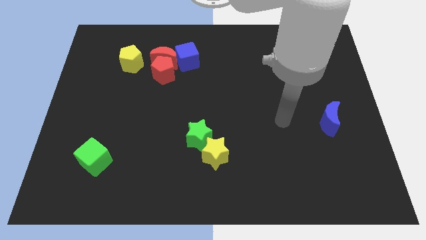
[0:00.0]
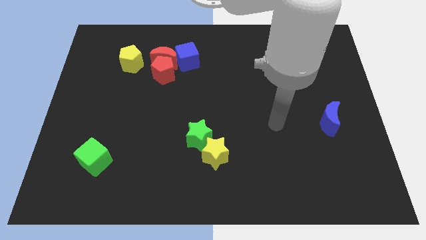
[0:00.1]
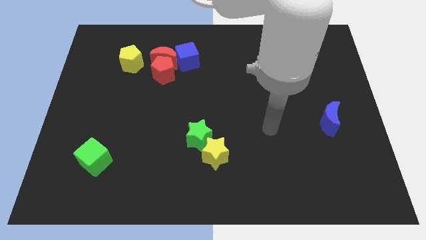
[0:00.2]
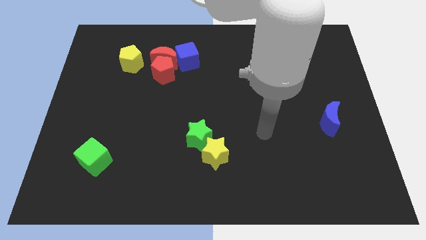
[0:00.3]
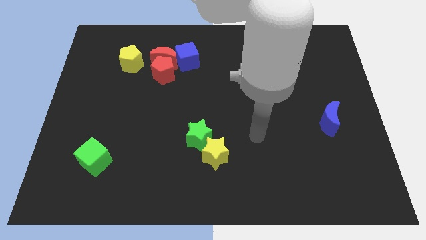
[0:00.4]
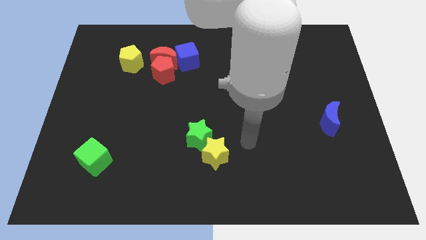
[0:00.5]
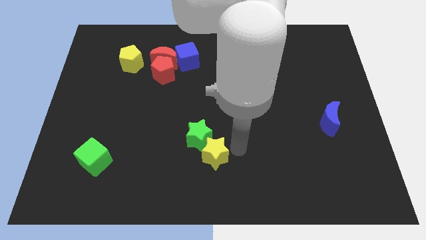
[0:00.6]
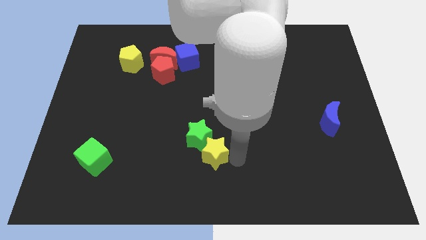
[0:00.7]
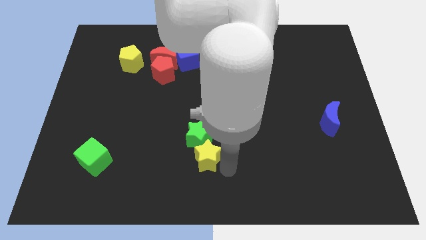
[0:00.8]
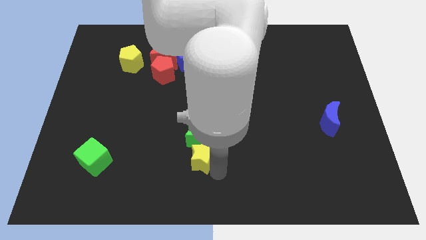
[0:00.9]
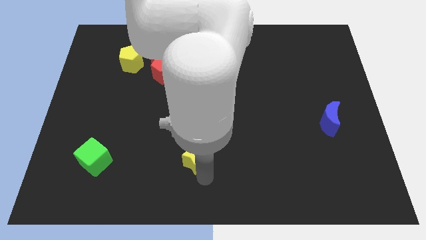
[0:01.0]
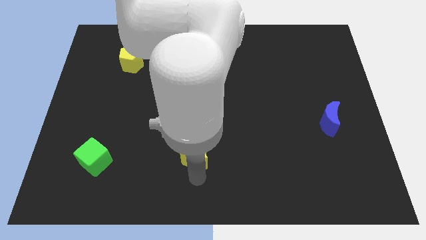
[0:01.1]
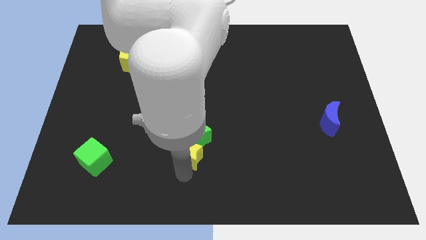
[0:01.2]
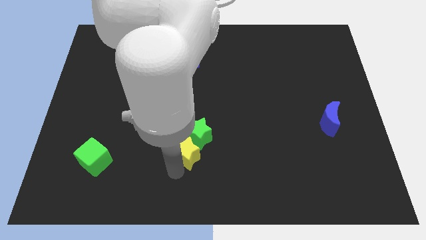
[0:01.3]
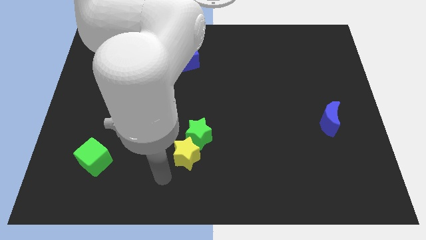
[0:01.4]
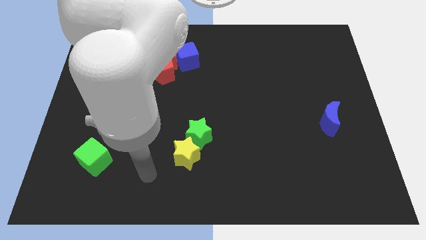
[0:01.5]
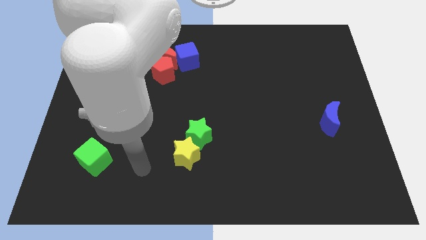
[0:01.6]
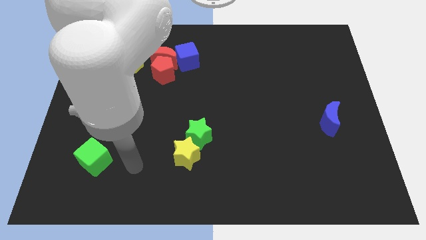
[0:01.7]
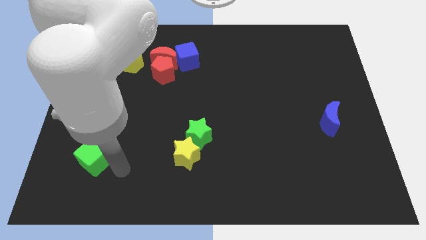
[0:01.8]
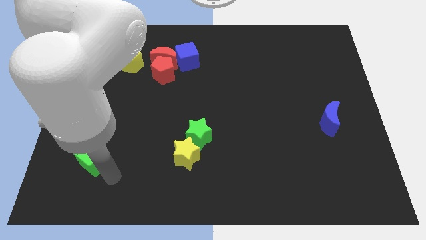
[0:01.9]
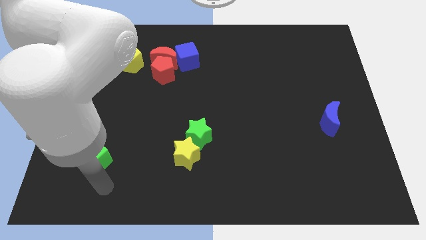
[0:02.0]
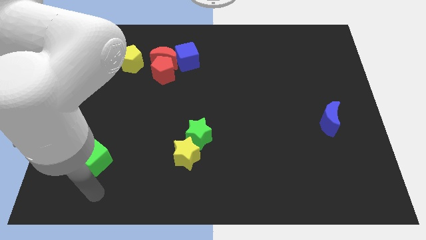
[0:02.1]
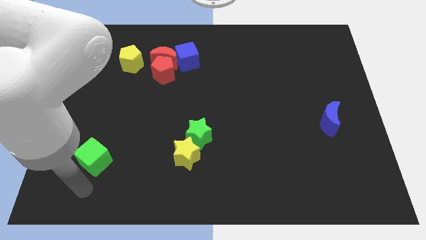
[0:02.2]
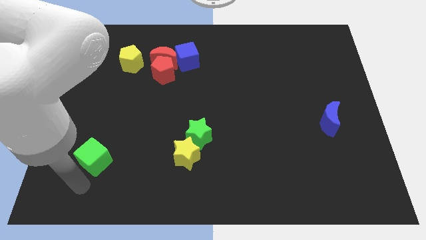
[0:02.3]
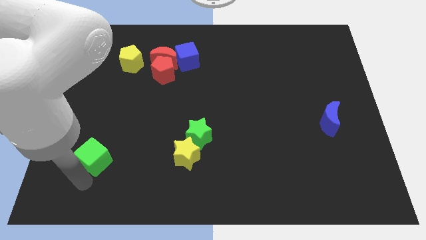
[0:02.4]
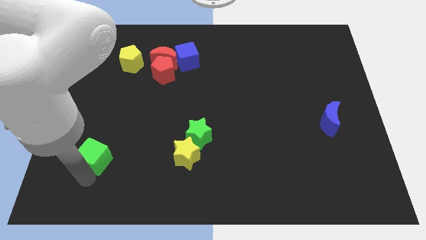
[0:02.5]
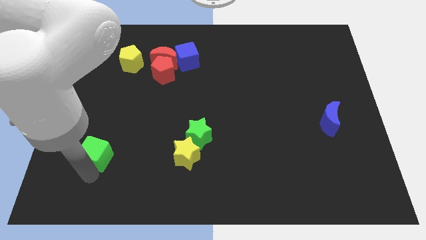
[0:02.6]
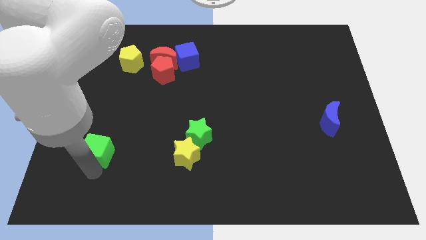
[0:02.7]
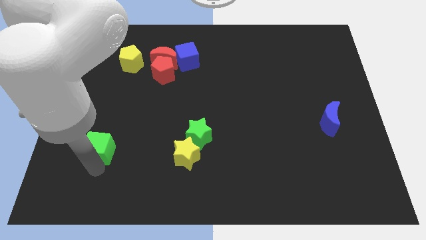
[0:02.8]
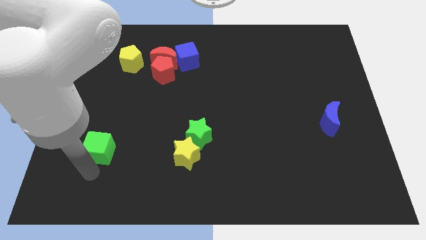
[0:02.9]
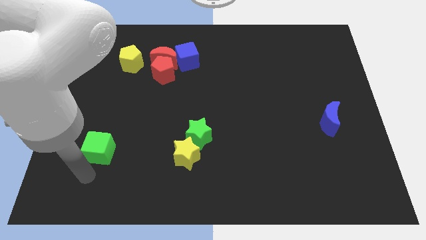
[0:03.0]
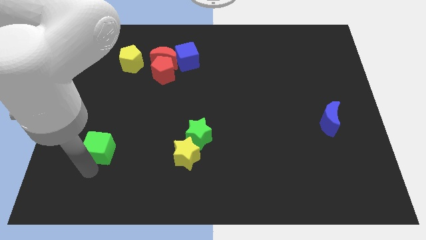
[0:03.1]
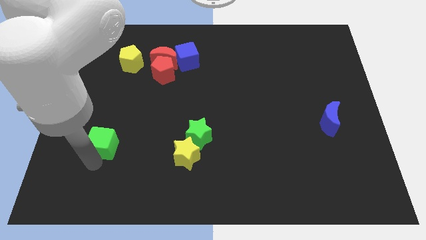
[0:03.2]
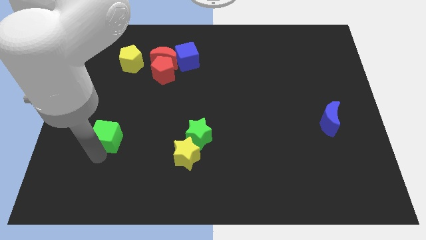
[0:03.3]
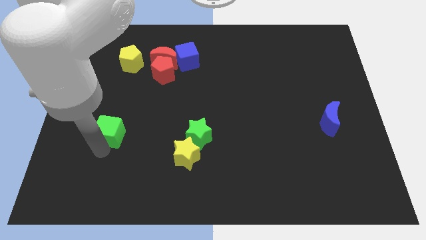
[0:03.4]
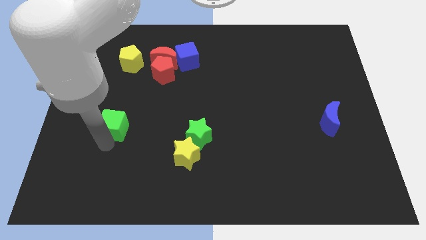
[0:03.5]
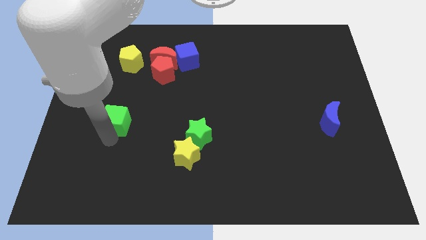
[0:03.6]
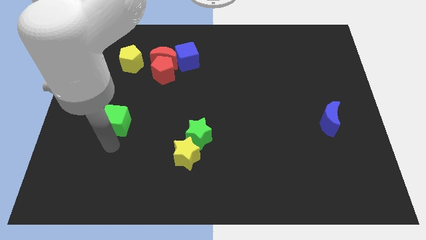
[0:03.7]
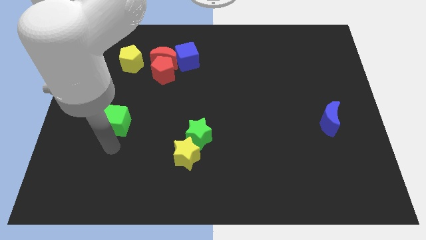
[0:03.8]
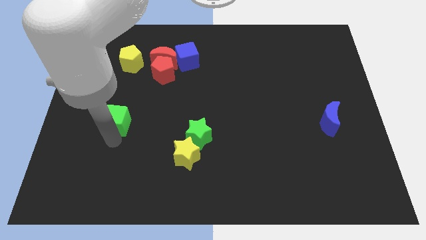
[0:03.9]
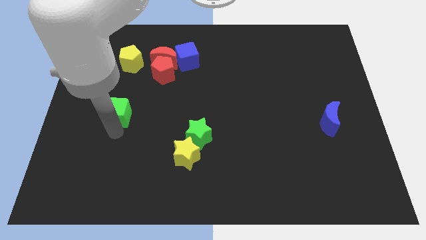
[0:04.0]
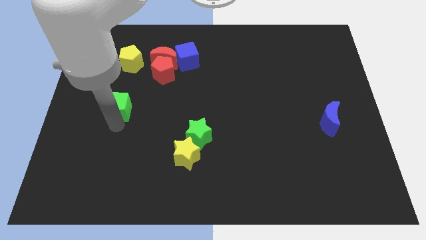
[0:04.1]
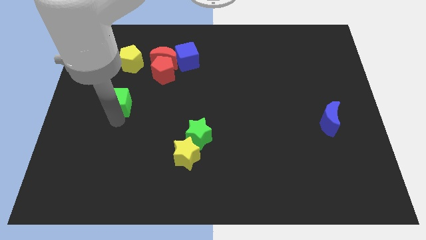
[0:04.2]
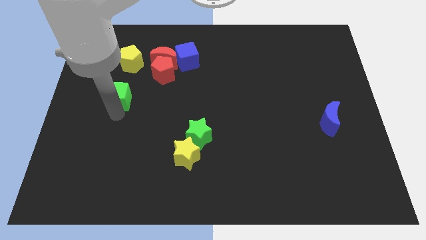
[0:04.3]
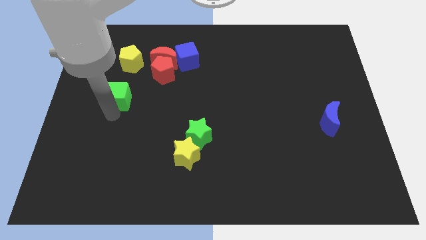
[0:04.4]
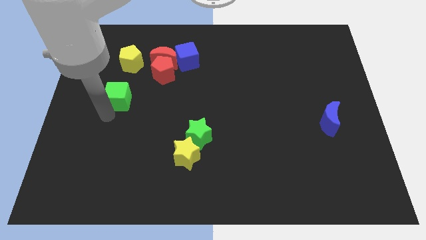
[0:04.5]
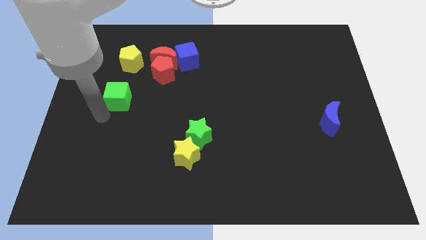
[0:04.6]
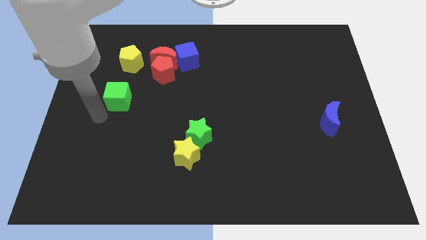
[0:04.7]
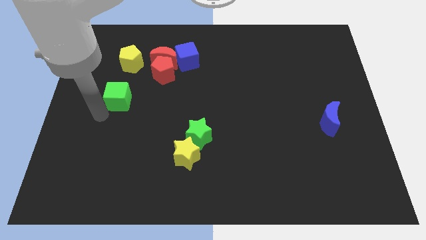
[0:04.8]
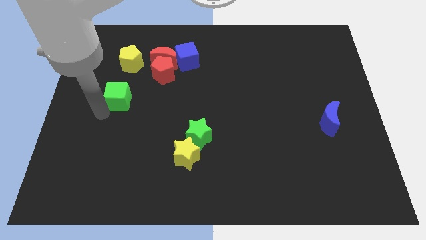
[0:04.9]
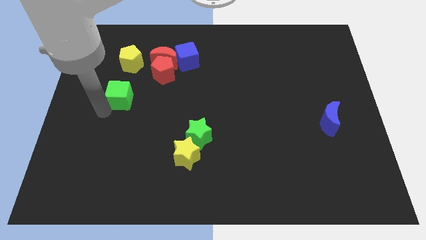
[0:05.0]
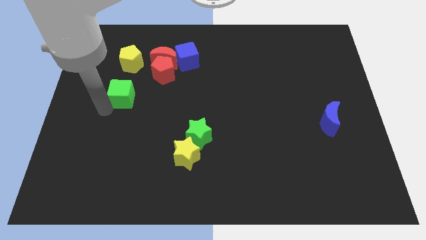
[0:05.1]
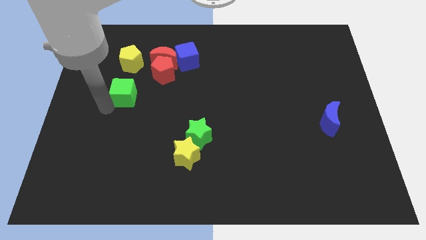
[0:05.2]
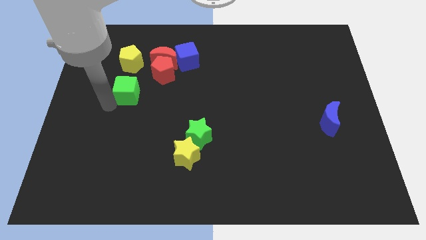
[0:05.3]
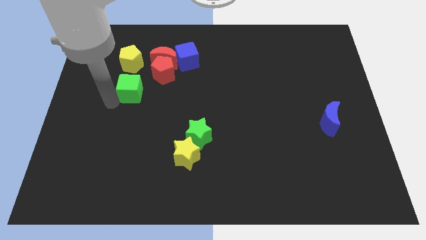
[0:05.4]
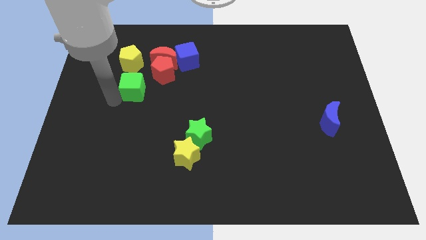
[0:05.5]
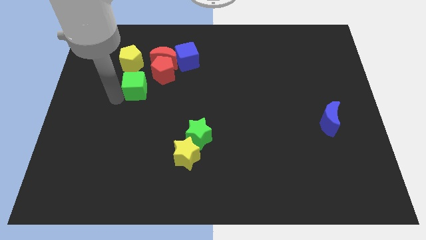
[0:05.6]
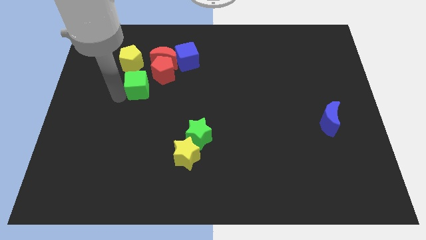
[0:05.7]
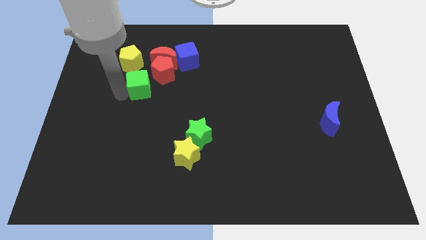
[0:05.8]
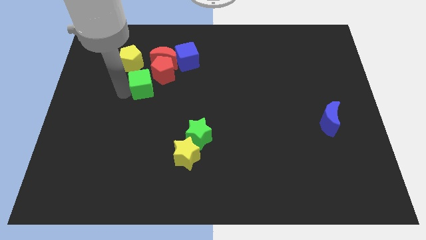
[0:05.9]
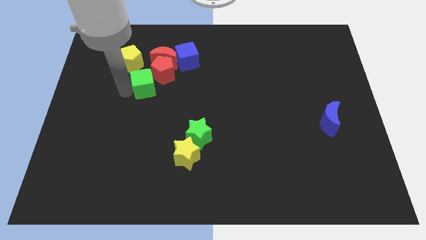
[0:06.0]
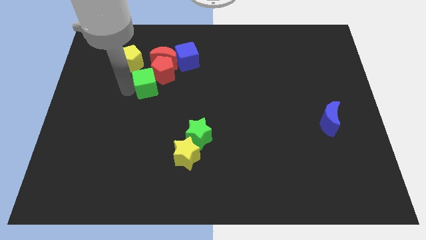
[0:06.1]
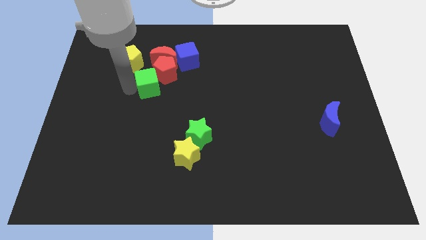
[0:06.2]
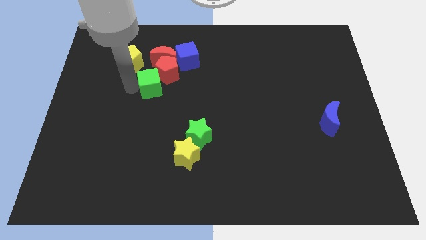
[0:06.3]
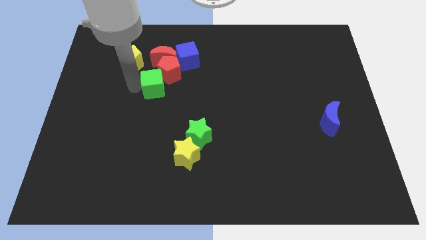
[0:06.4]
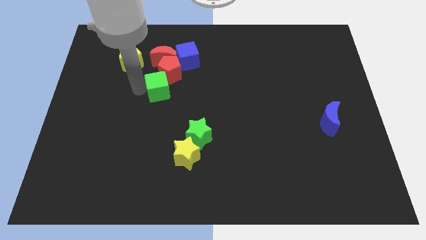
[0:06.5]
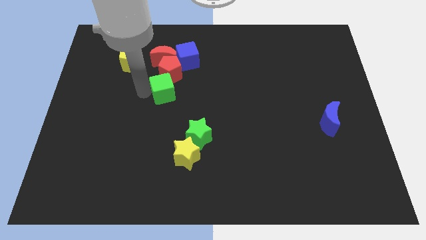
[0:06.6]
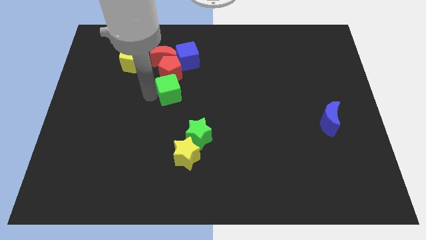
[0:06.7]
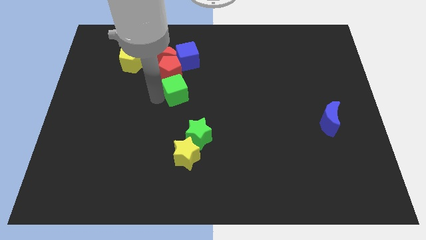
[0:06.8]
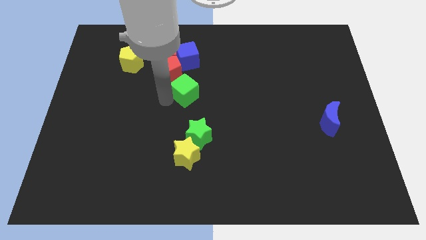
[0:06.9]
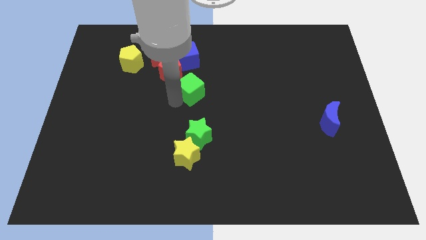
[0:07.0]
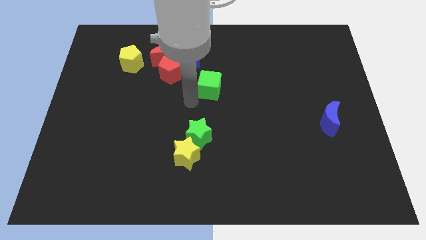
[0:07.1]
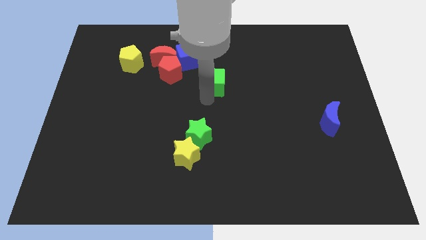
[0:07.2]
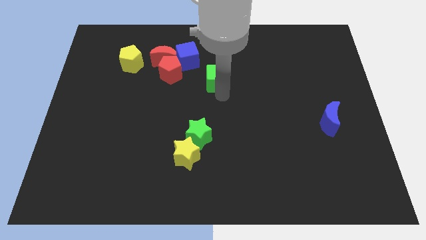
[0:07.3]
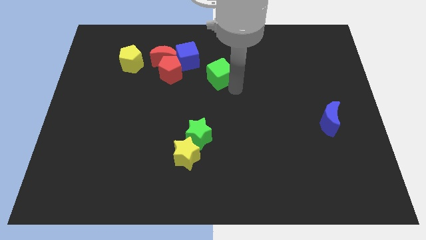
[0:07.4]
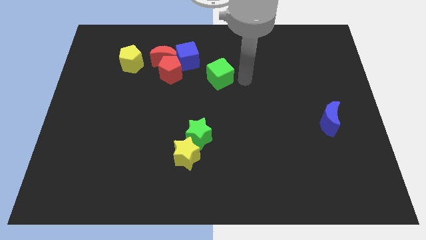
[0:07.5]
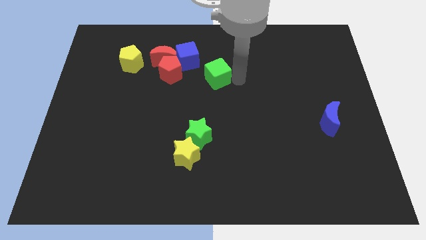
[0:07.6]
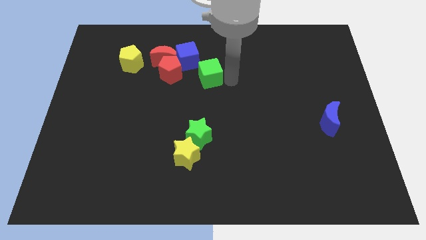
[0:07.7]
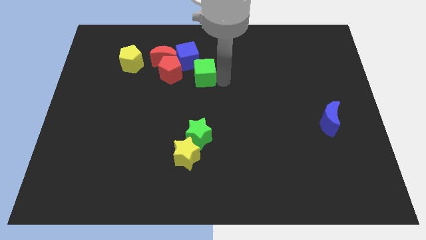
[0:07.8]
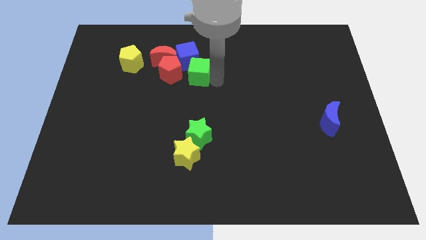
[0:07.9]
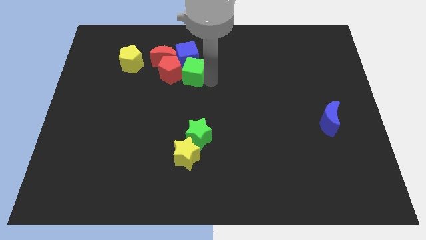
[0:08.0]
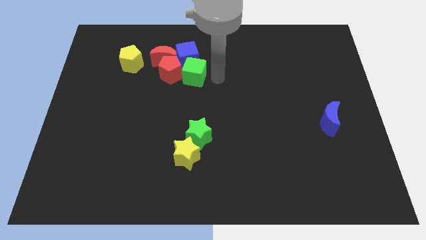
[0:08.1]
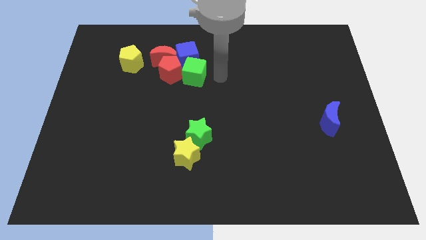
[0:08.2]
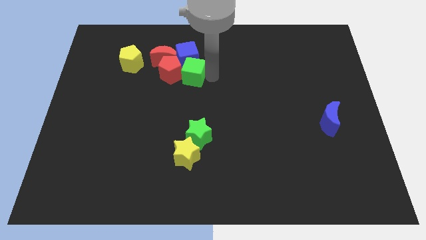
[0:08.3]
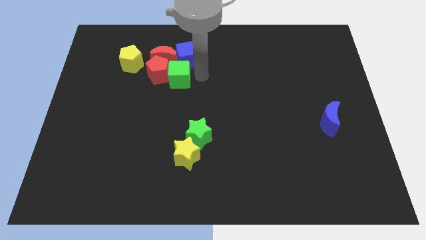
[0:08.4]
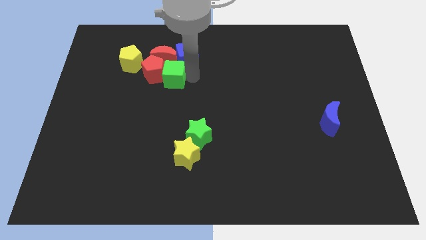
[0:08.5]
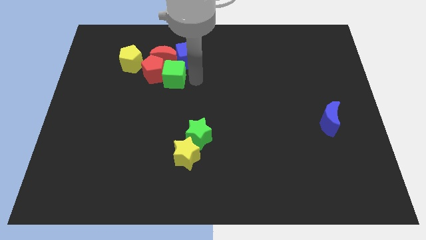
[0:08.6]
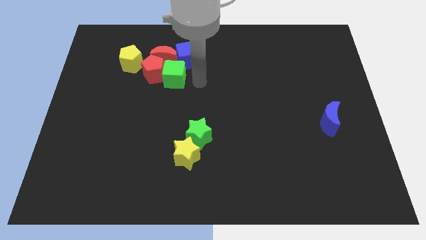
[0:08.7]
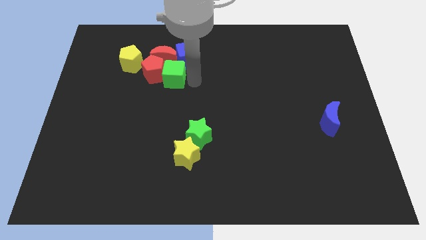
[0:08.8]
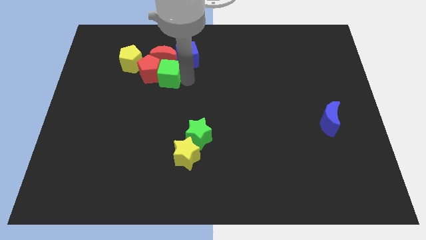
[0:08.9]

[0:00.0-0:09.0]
slide the green cube close to the red moon
